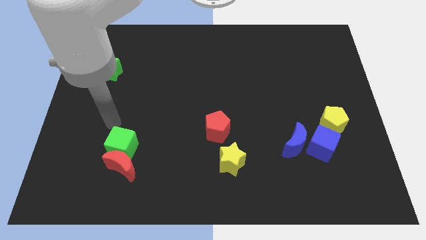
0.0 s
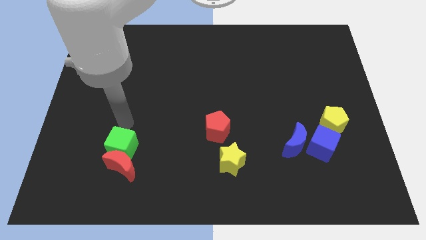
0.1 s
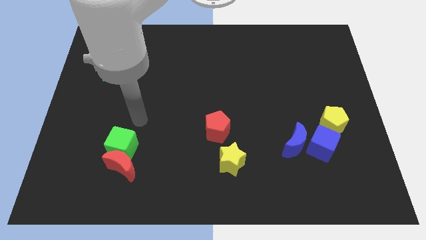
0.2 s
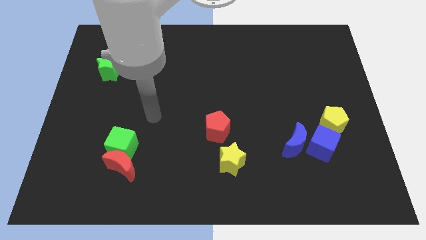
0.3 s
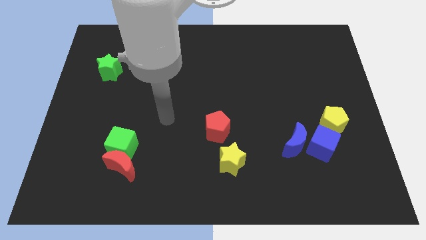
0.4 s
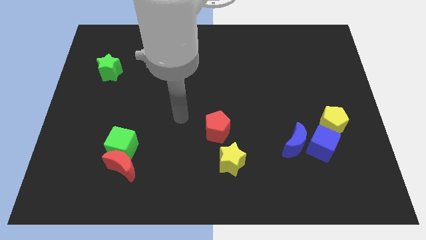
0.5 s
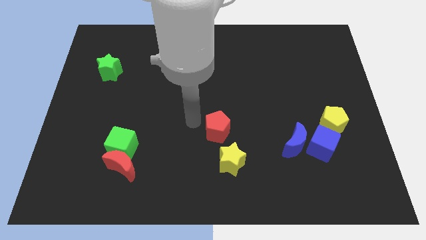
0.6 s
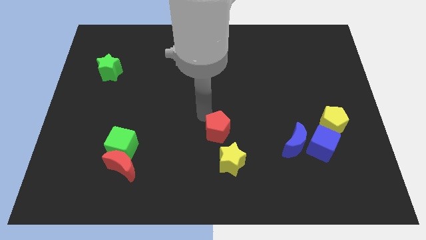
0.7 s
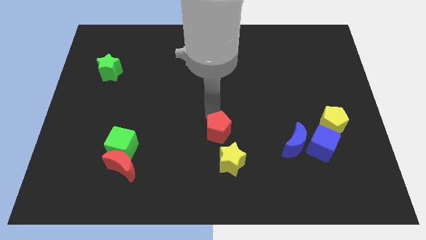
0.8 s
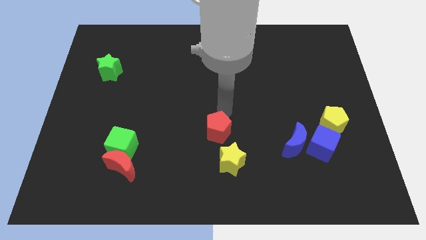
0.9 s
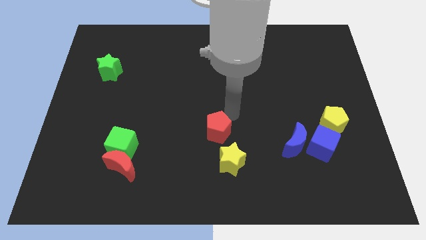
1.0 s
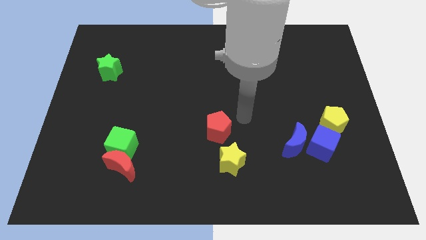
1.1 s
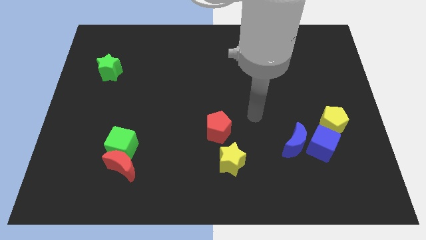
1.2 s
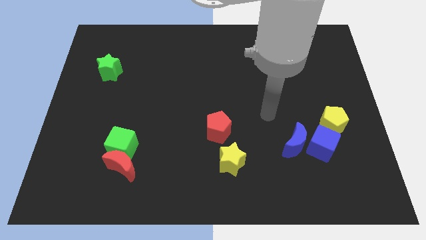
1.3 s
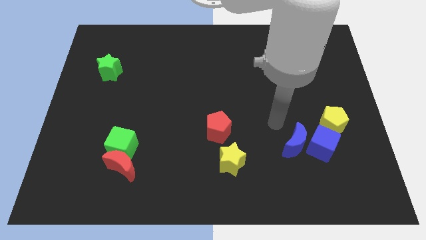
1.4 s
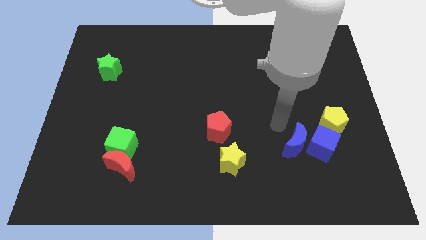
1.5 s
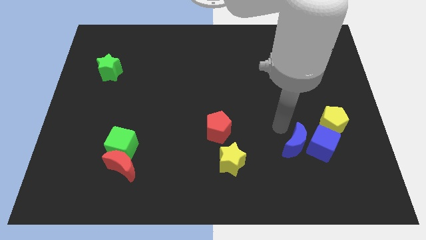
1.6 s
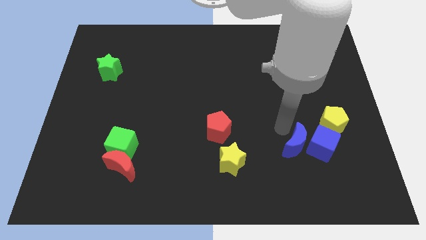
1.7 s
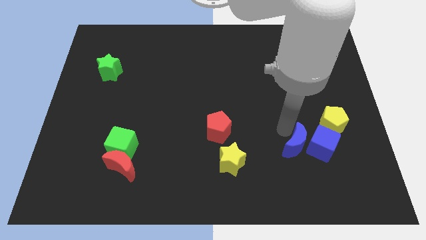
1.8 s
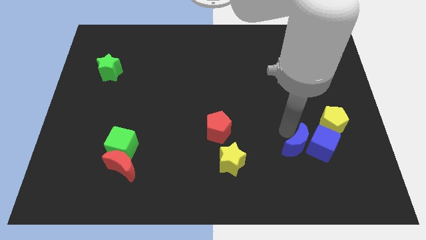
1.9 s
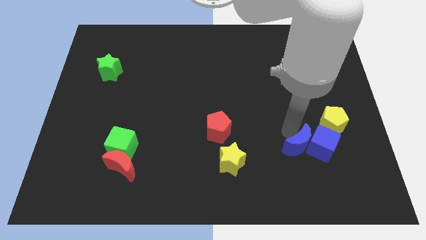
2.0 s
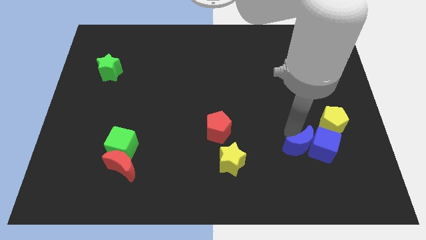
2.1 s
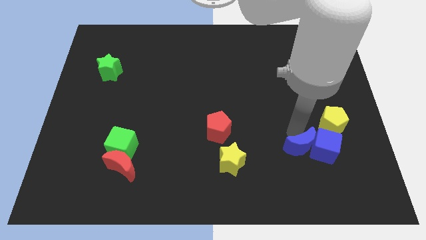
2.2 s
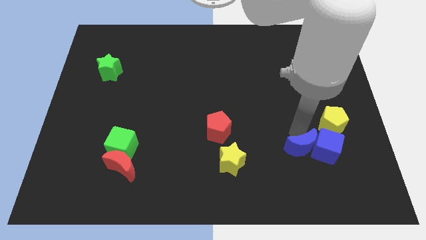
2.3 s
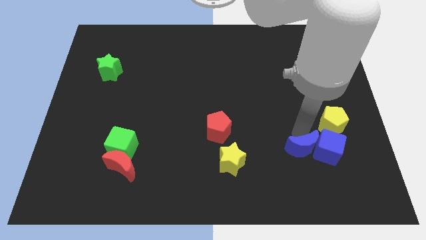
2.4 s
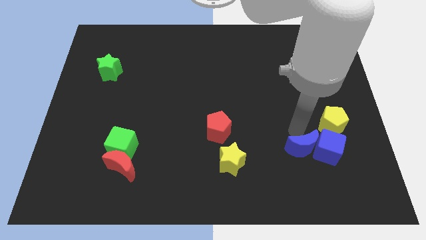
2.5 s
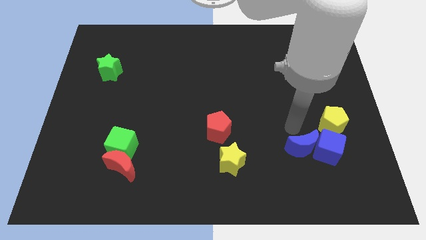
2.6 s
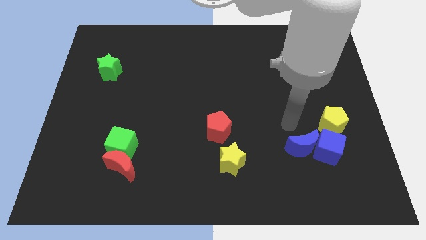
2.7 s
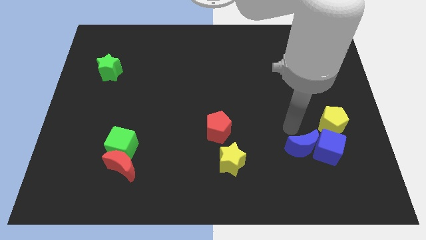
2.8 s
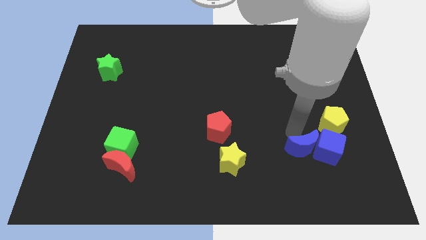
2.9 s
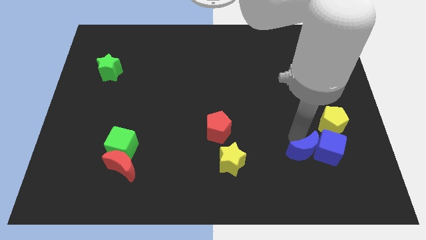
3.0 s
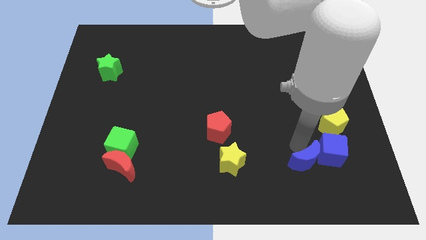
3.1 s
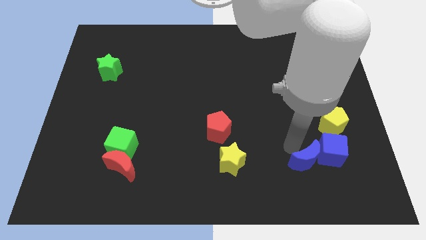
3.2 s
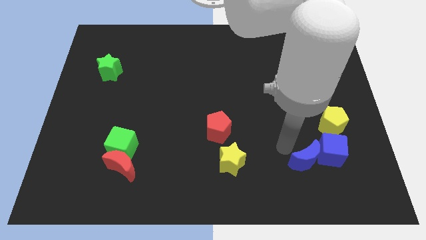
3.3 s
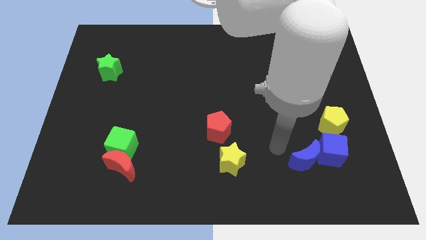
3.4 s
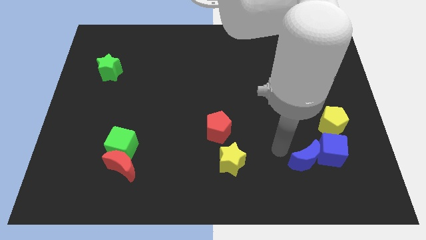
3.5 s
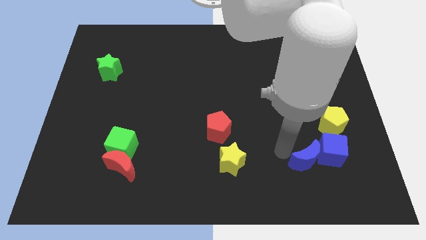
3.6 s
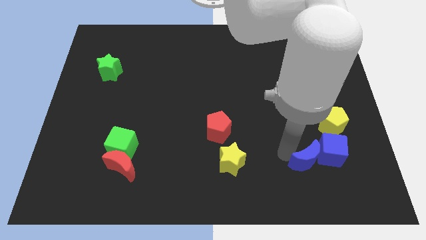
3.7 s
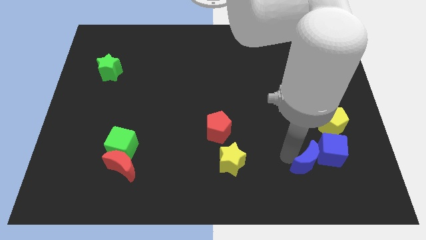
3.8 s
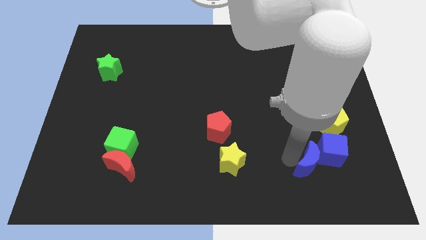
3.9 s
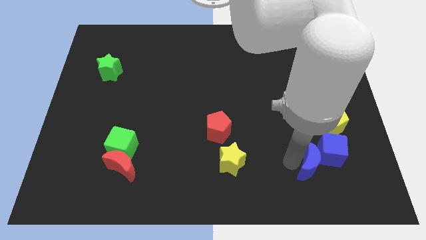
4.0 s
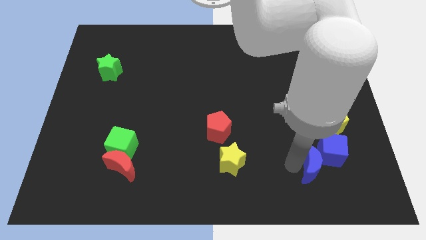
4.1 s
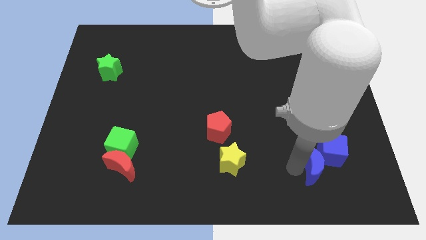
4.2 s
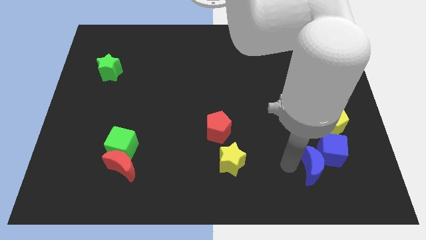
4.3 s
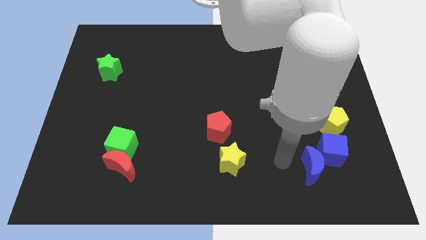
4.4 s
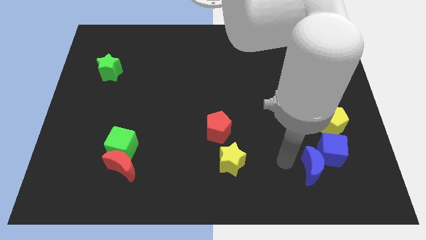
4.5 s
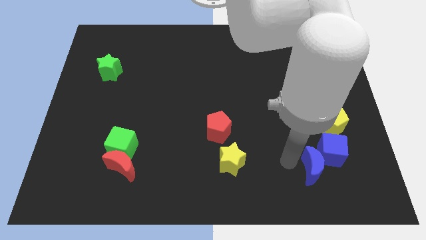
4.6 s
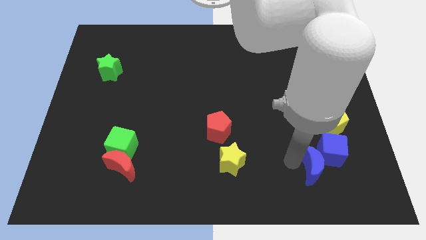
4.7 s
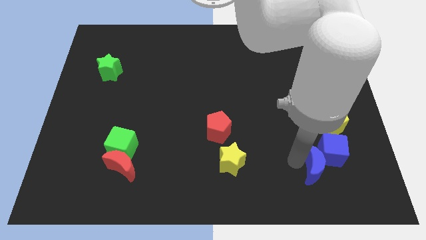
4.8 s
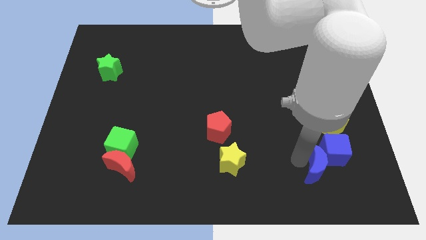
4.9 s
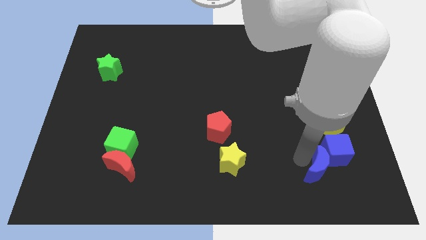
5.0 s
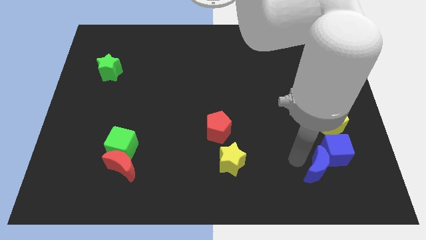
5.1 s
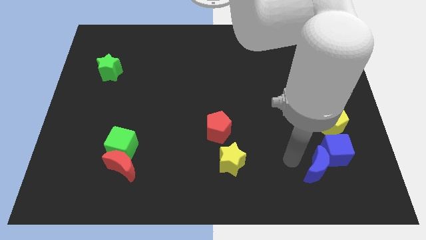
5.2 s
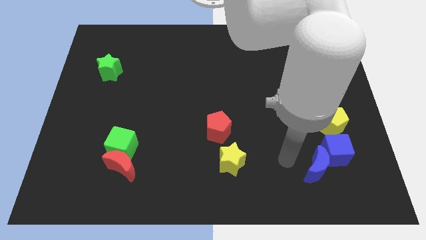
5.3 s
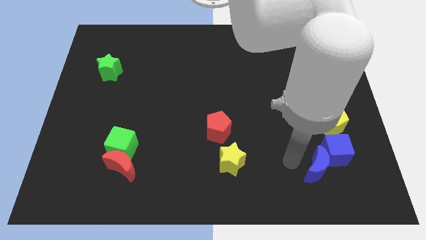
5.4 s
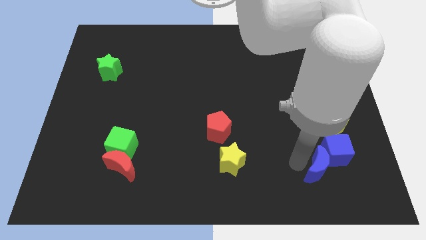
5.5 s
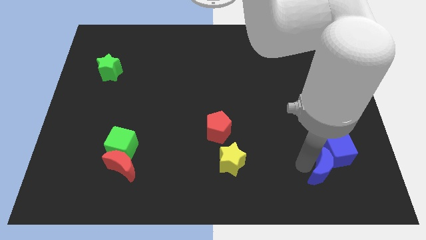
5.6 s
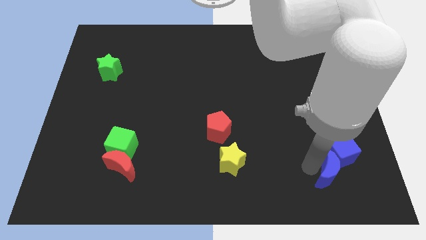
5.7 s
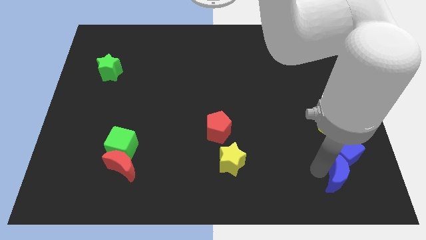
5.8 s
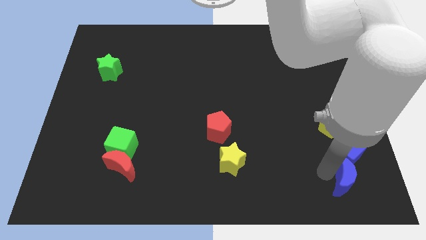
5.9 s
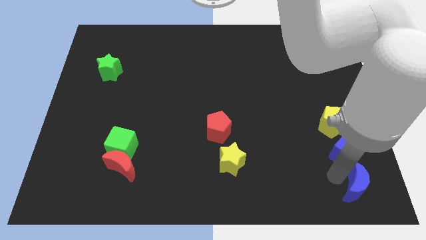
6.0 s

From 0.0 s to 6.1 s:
slide the blue moon to the bottom right corner

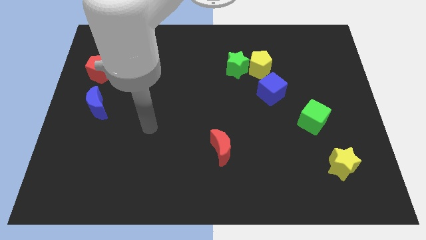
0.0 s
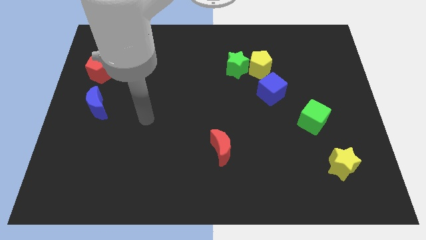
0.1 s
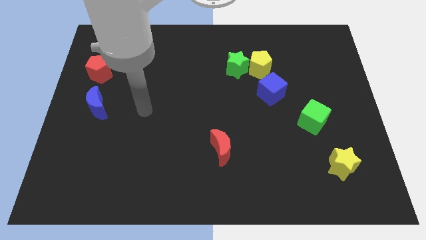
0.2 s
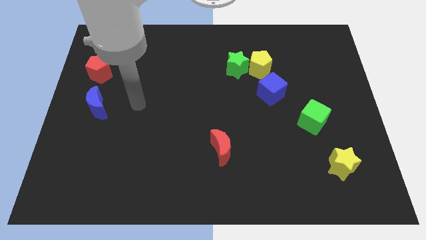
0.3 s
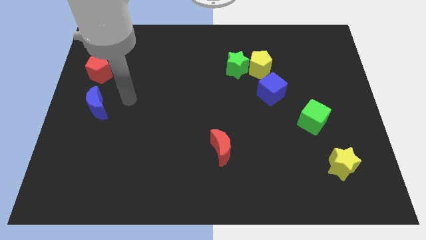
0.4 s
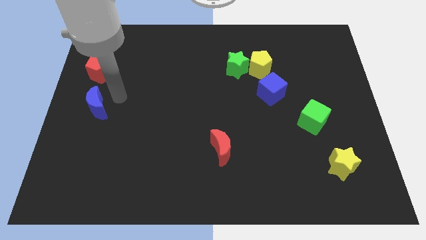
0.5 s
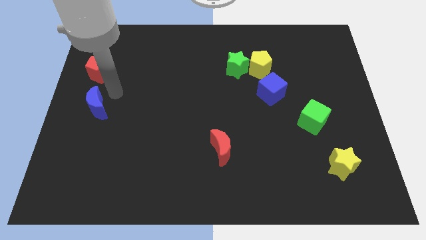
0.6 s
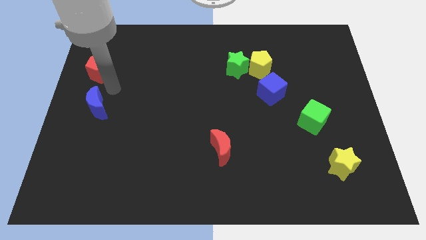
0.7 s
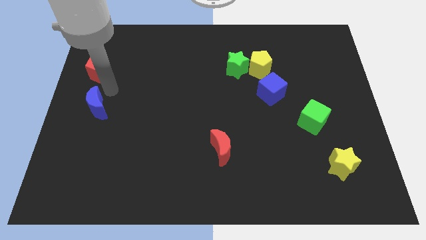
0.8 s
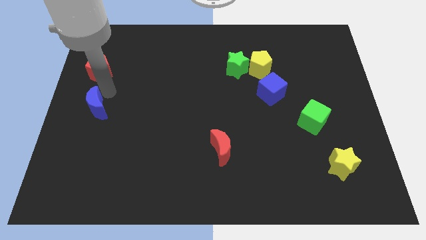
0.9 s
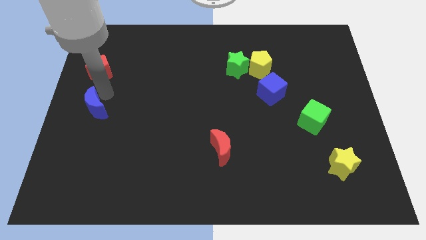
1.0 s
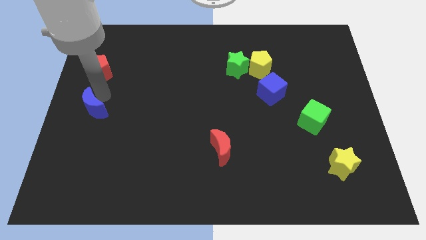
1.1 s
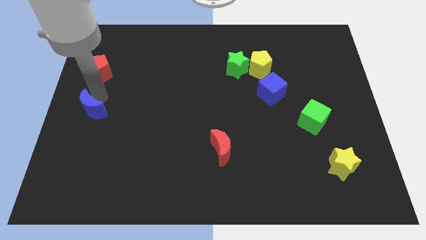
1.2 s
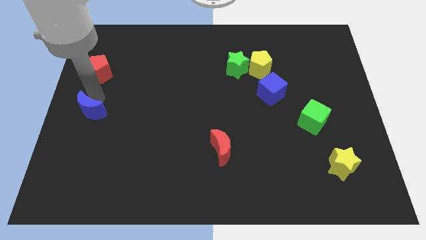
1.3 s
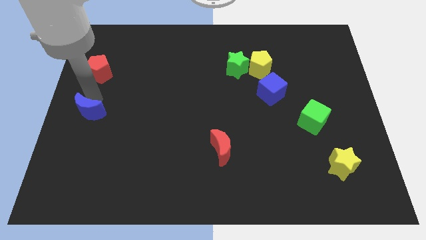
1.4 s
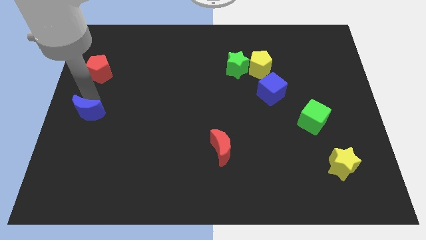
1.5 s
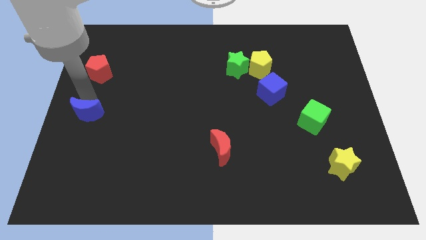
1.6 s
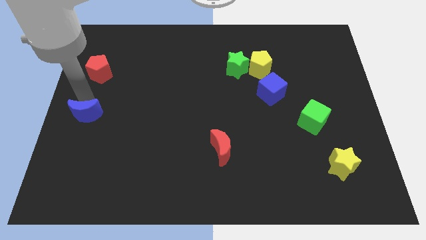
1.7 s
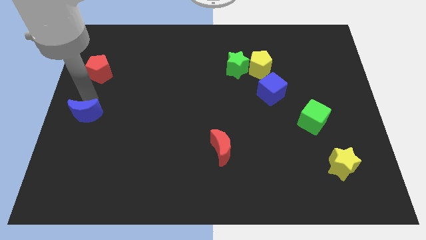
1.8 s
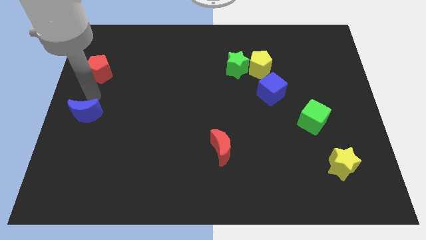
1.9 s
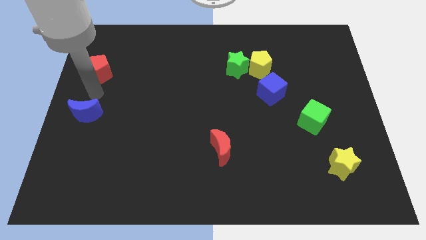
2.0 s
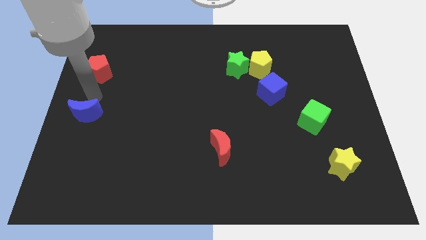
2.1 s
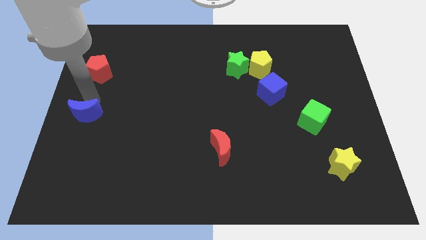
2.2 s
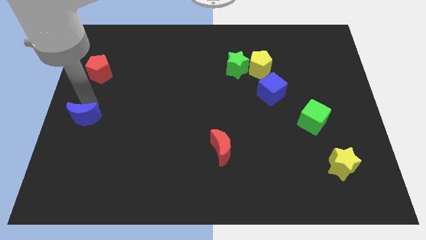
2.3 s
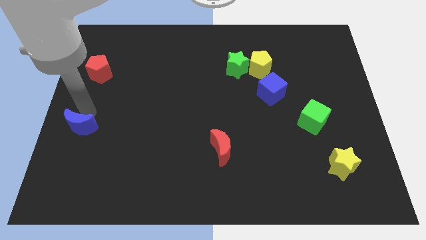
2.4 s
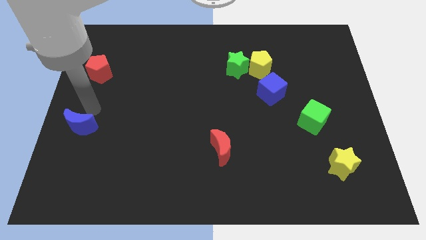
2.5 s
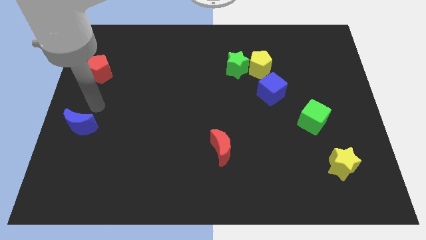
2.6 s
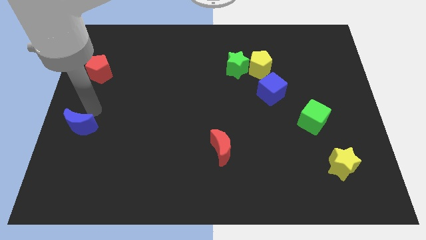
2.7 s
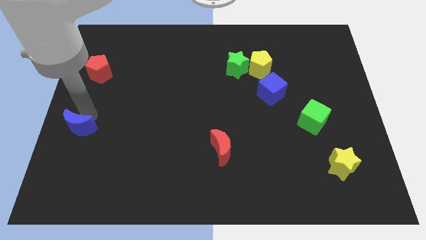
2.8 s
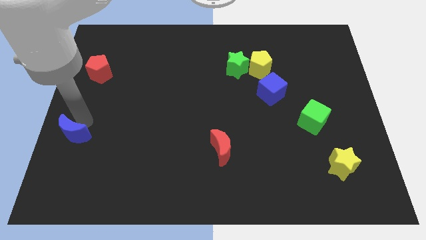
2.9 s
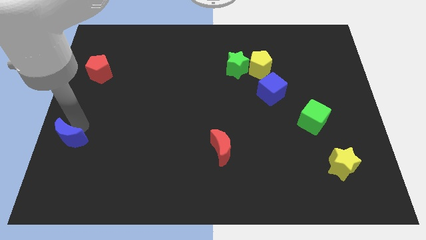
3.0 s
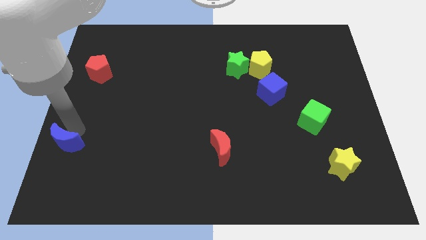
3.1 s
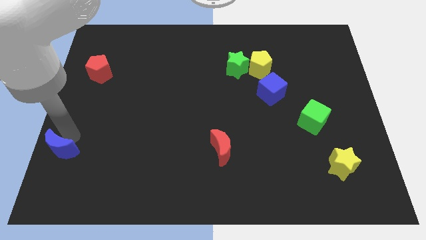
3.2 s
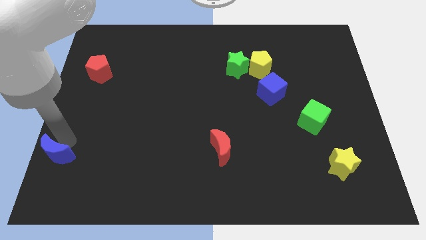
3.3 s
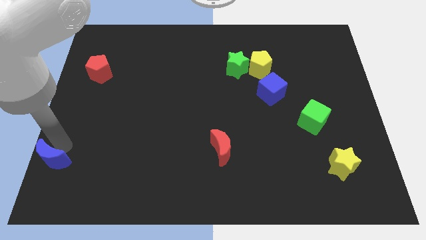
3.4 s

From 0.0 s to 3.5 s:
push the blue moon to the bottom left corner
